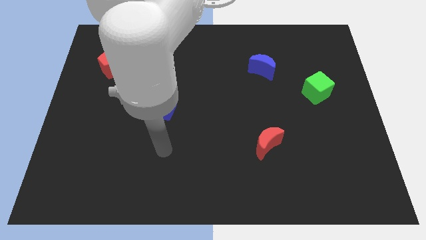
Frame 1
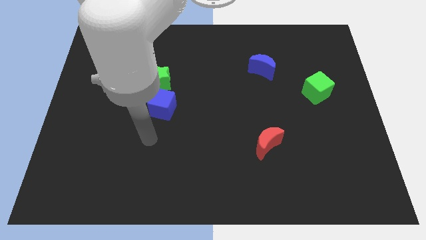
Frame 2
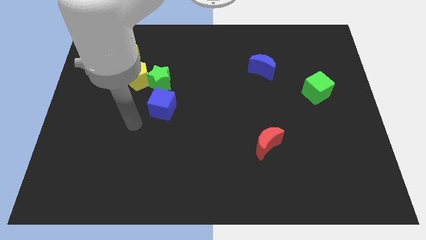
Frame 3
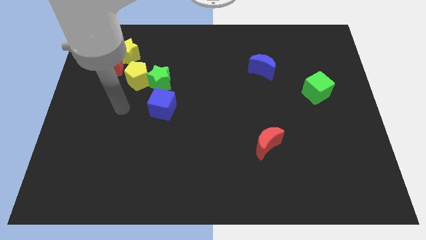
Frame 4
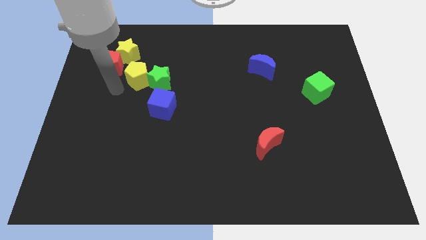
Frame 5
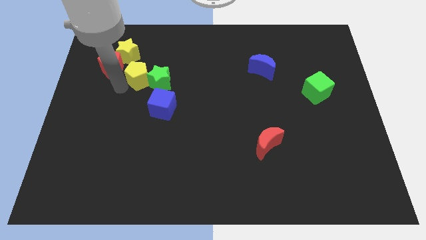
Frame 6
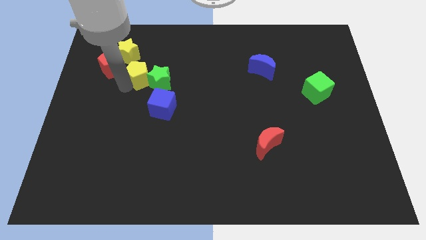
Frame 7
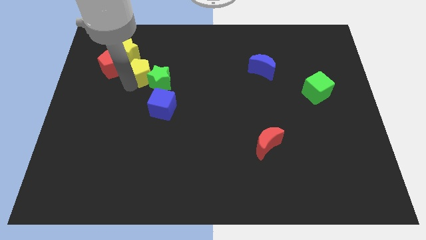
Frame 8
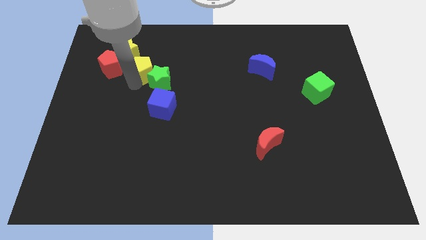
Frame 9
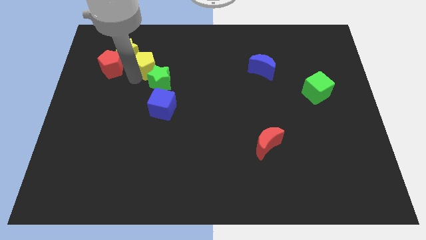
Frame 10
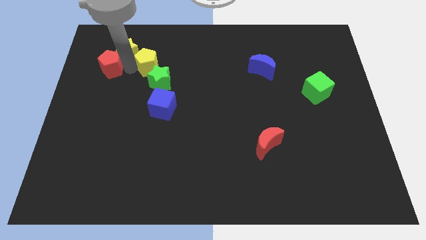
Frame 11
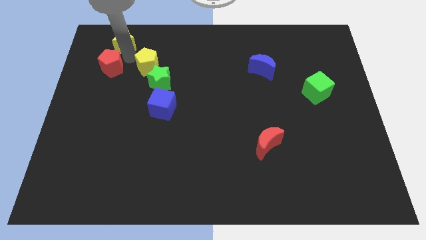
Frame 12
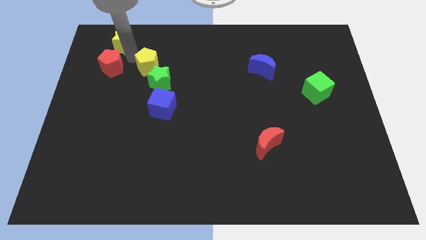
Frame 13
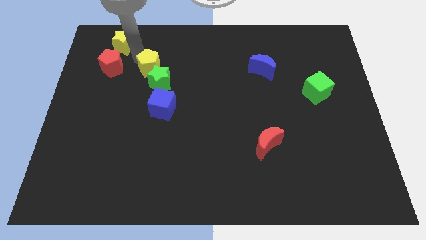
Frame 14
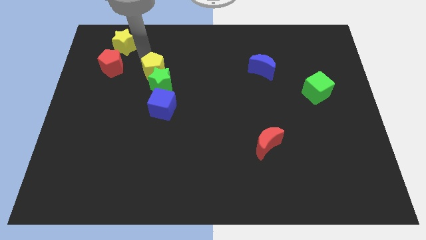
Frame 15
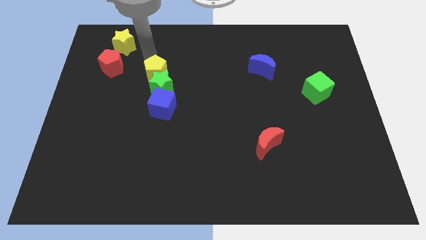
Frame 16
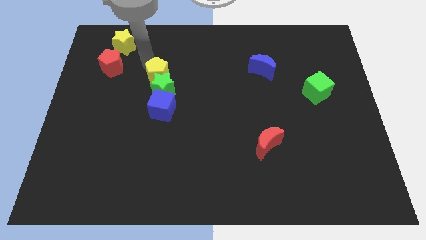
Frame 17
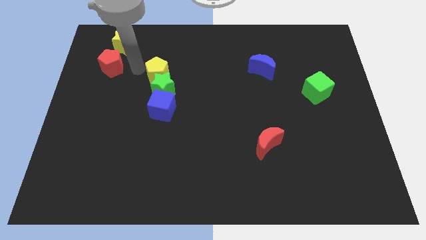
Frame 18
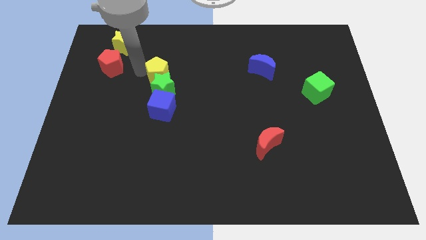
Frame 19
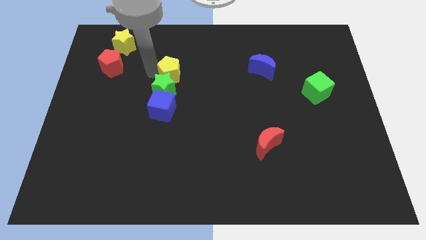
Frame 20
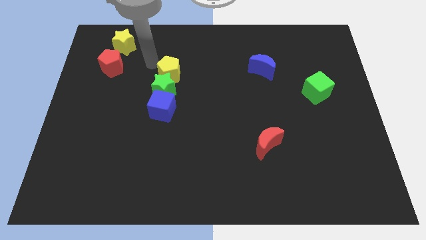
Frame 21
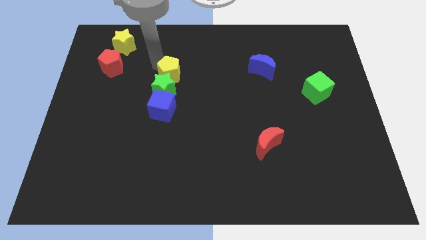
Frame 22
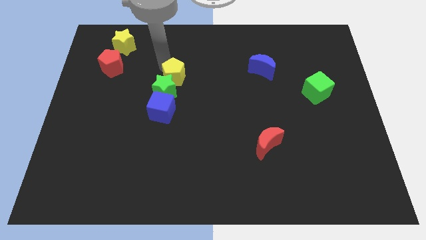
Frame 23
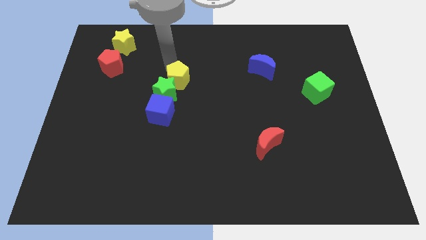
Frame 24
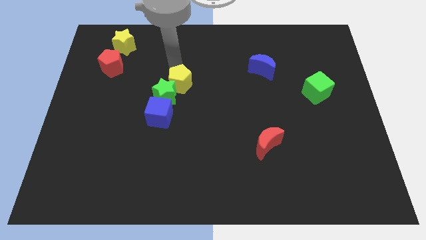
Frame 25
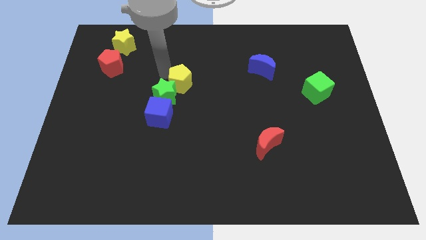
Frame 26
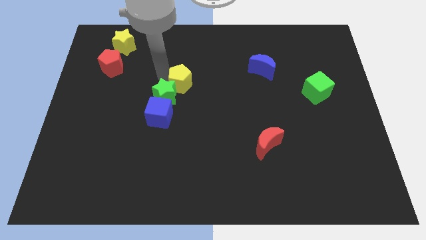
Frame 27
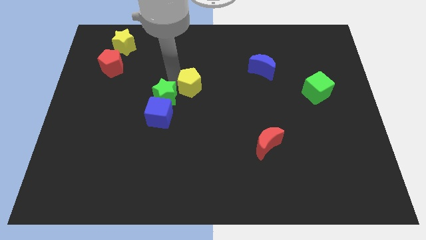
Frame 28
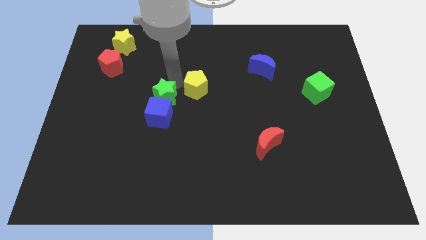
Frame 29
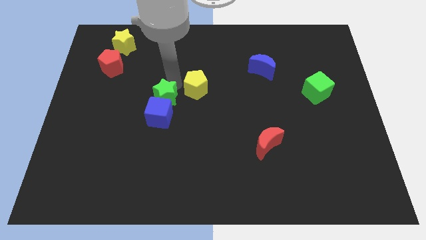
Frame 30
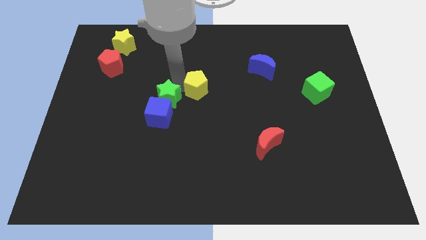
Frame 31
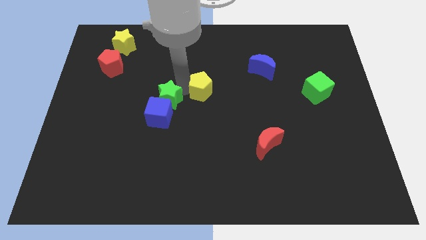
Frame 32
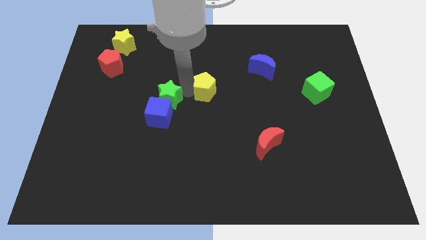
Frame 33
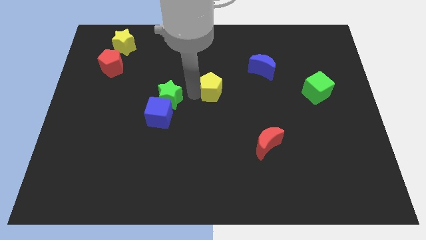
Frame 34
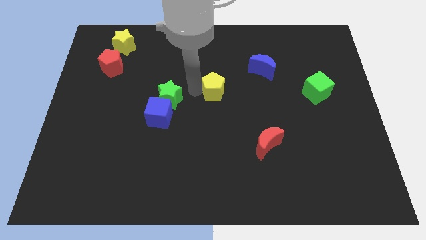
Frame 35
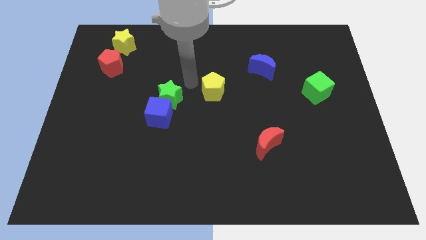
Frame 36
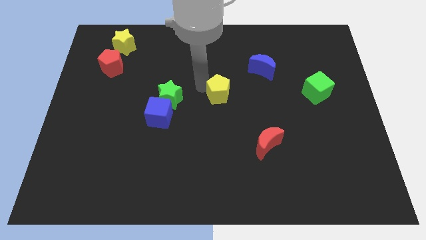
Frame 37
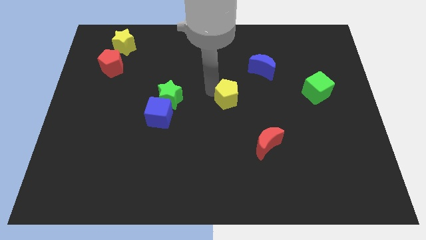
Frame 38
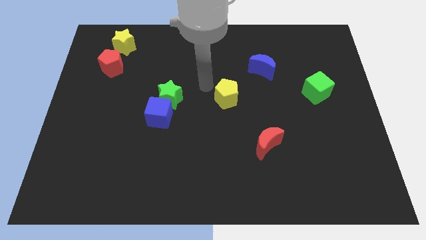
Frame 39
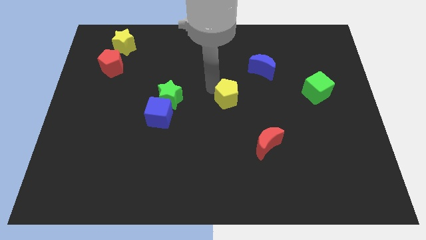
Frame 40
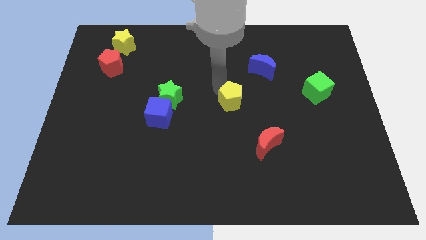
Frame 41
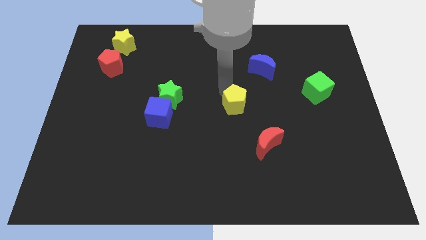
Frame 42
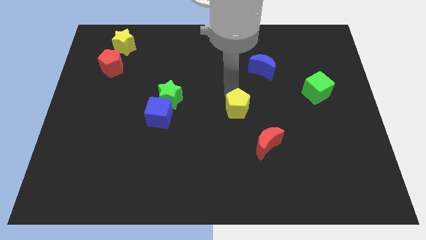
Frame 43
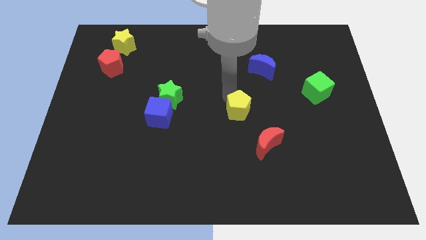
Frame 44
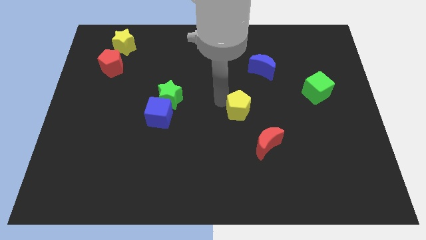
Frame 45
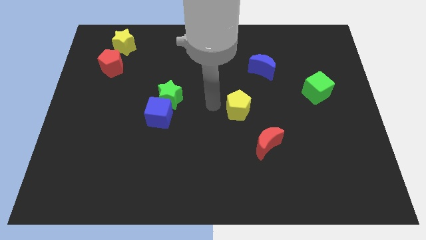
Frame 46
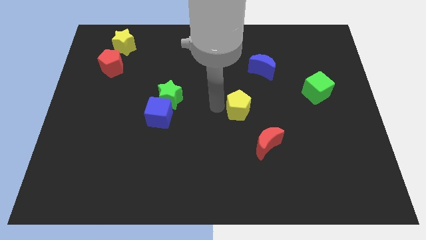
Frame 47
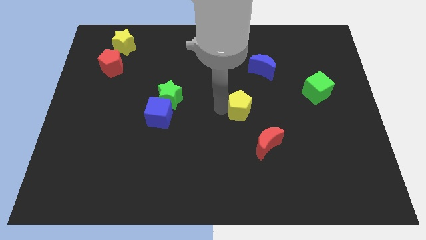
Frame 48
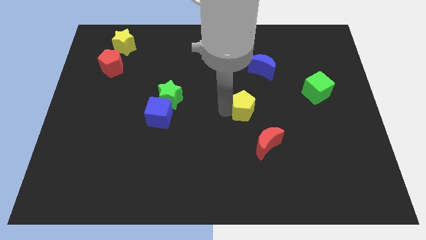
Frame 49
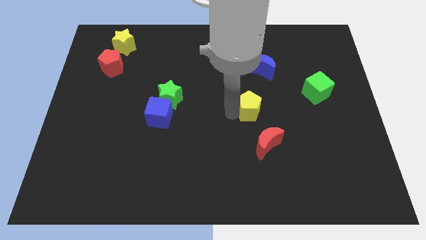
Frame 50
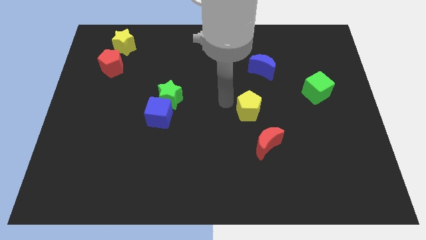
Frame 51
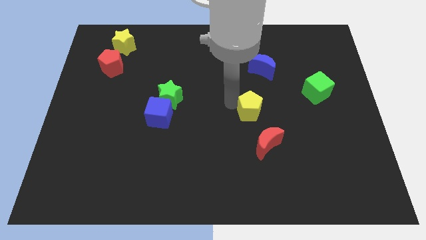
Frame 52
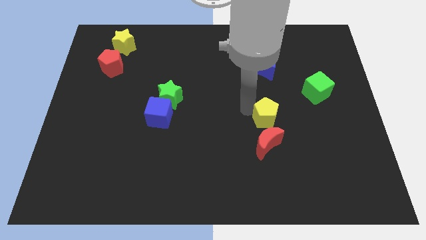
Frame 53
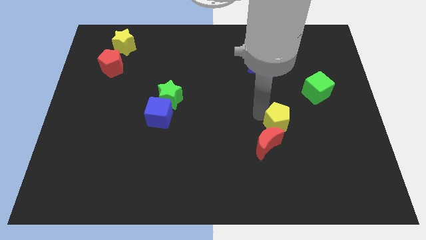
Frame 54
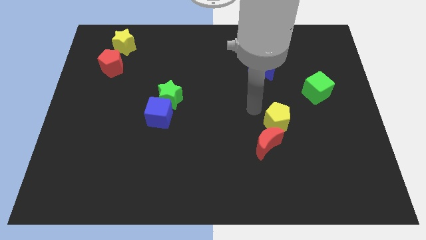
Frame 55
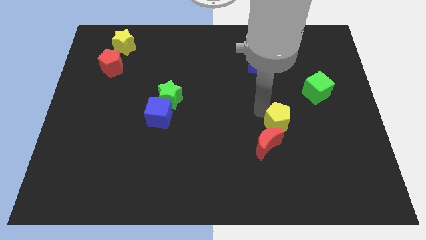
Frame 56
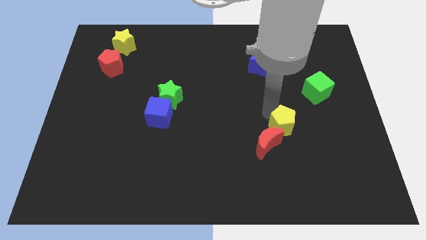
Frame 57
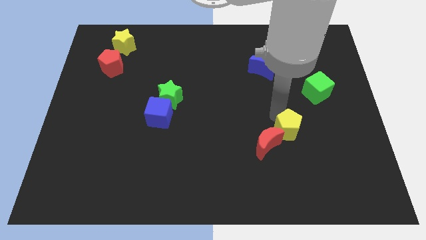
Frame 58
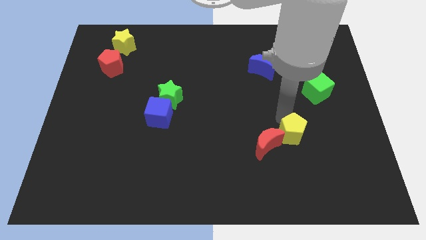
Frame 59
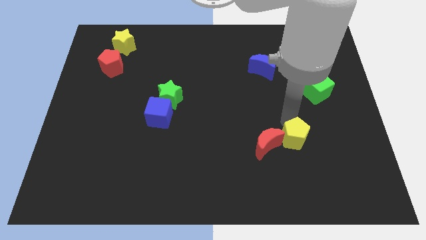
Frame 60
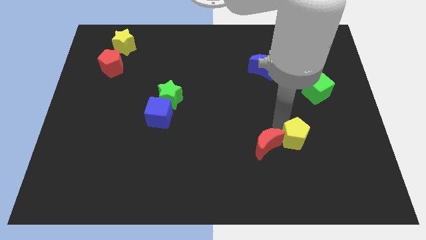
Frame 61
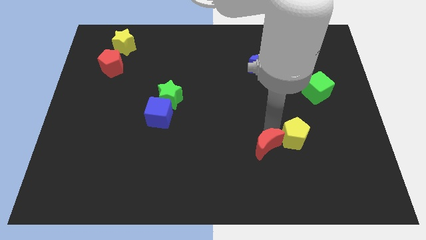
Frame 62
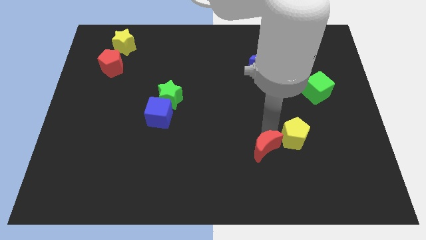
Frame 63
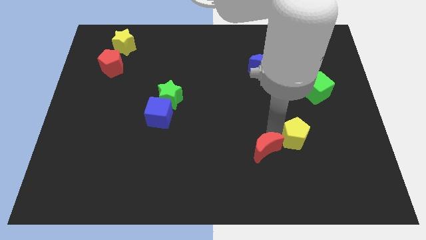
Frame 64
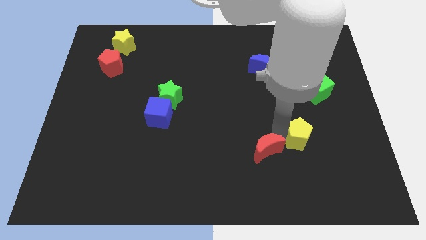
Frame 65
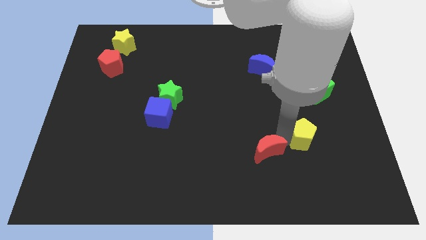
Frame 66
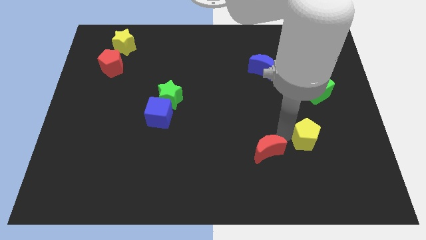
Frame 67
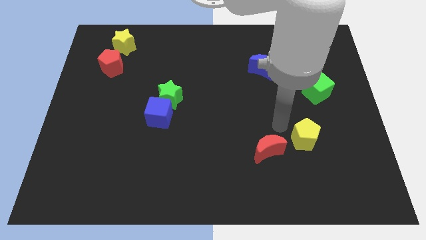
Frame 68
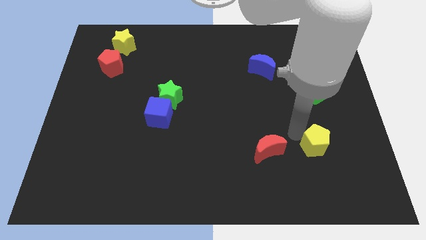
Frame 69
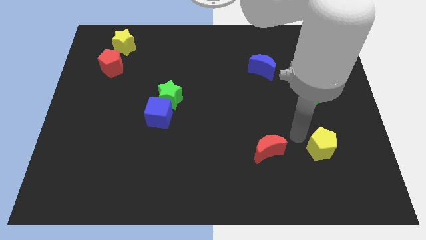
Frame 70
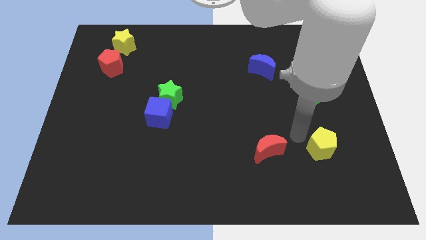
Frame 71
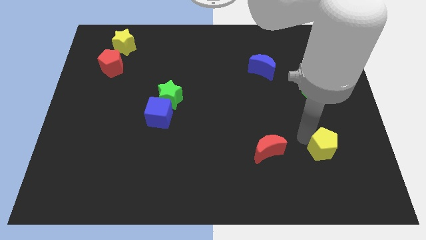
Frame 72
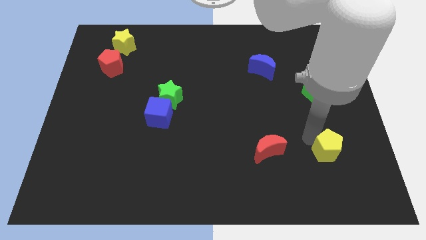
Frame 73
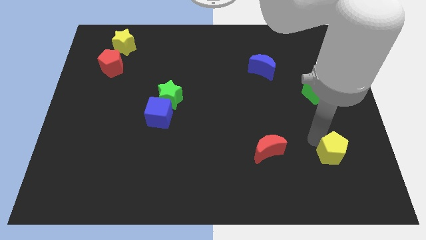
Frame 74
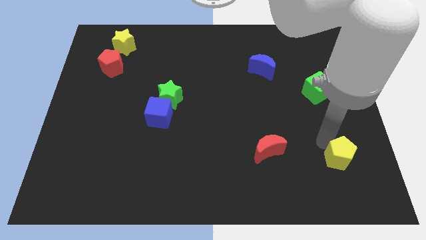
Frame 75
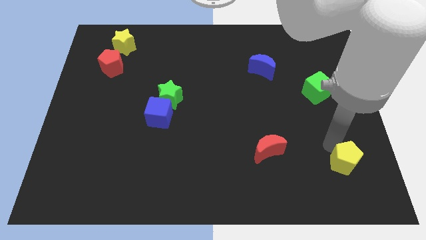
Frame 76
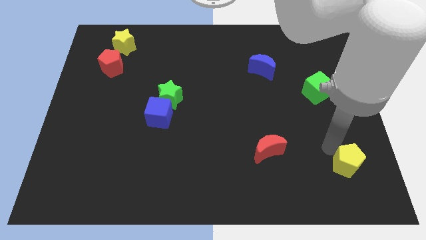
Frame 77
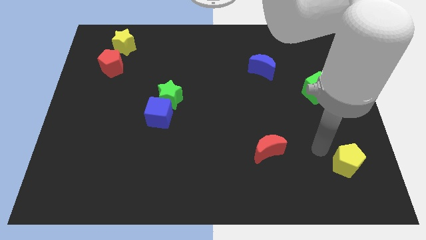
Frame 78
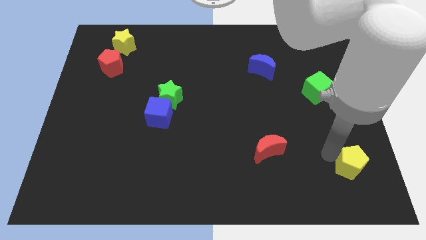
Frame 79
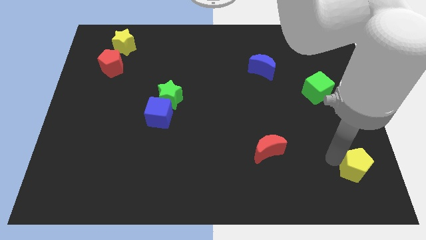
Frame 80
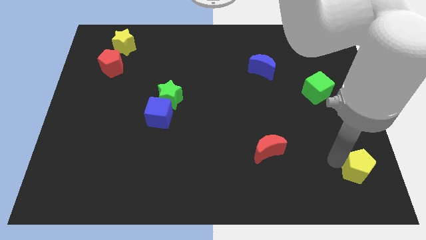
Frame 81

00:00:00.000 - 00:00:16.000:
move the yellow pentagon to the lower right corner
